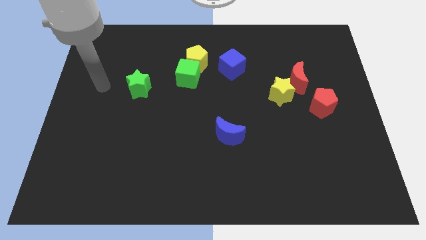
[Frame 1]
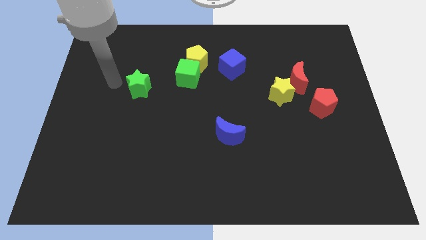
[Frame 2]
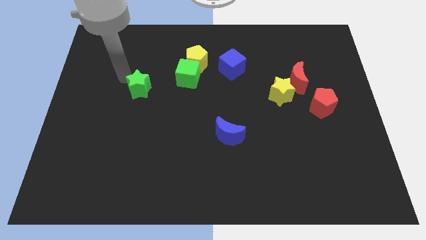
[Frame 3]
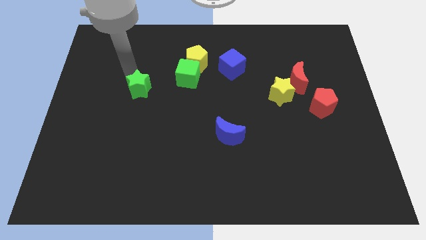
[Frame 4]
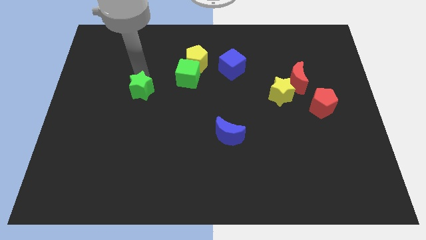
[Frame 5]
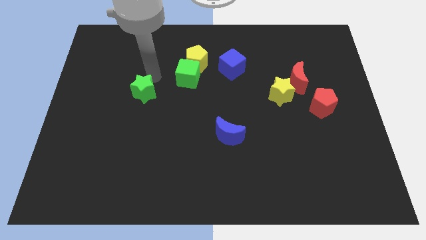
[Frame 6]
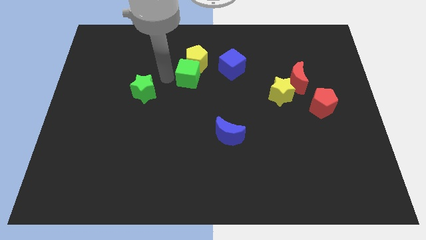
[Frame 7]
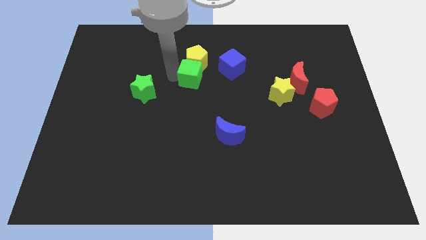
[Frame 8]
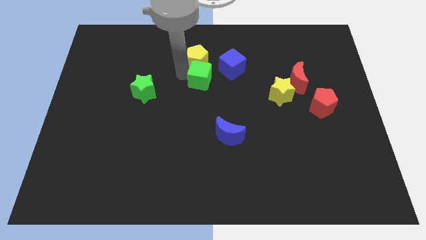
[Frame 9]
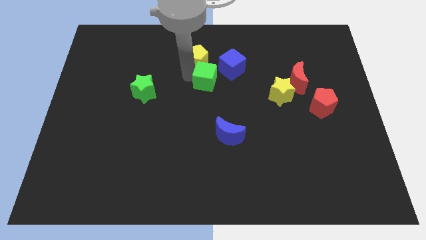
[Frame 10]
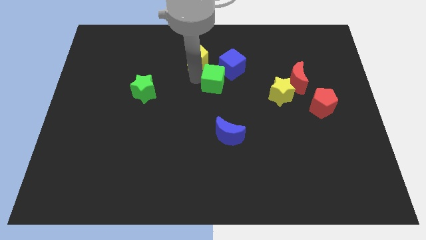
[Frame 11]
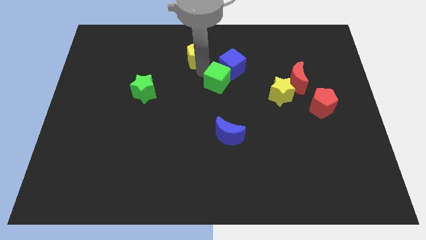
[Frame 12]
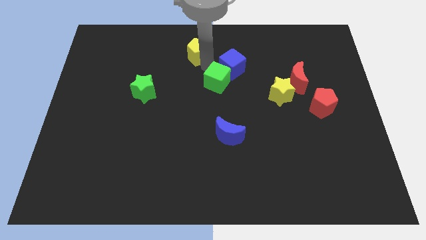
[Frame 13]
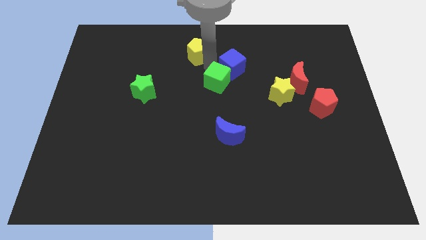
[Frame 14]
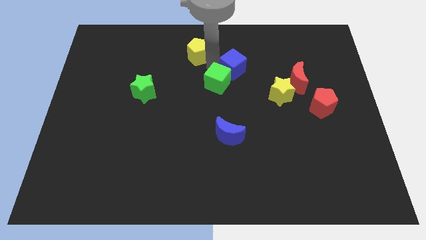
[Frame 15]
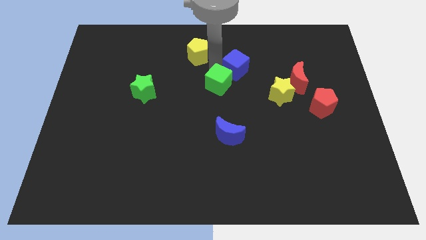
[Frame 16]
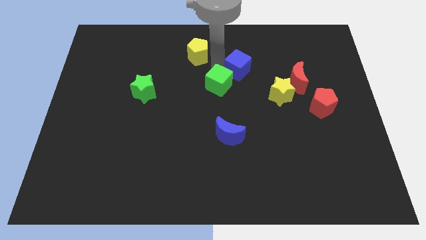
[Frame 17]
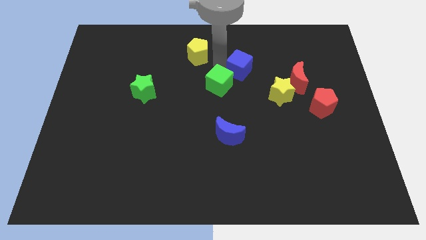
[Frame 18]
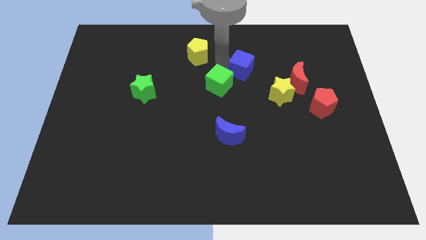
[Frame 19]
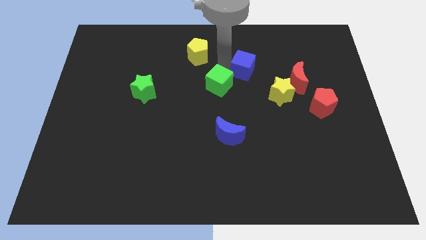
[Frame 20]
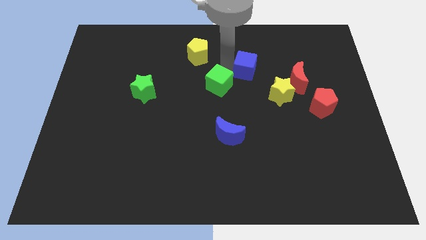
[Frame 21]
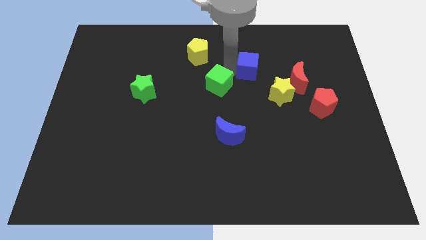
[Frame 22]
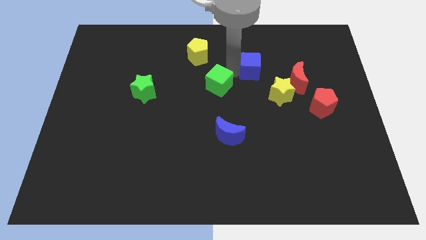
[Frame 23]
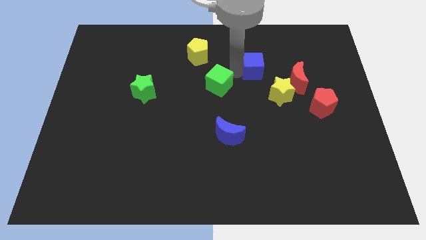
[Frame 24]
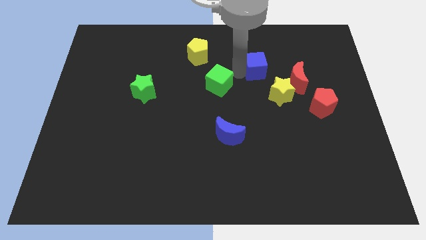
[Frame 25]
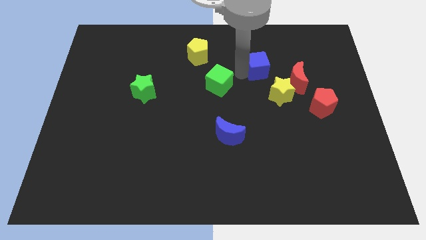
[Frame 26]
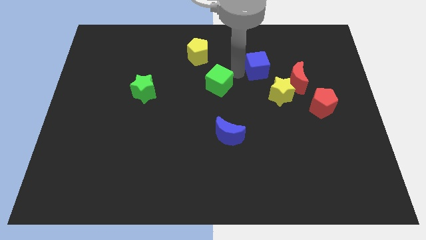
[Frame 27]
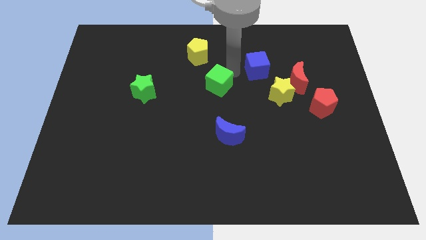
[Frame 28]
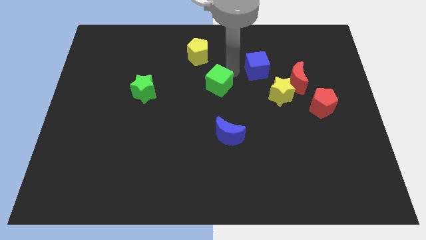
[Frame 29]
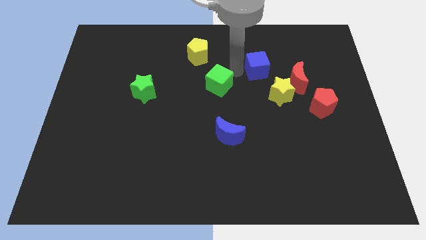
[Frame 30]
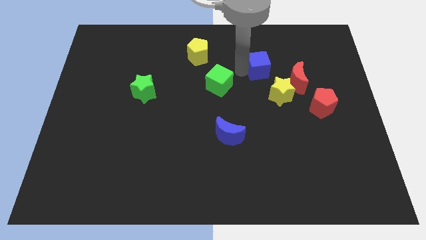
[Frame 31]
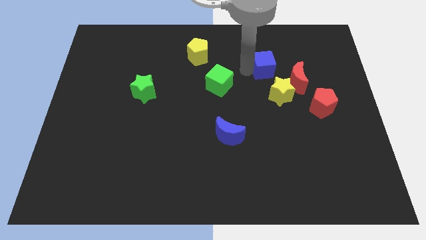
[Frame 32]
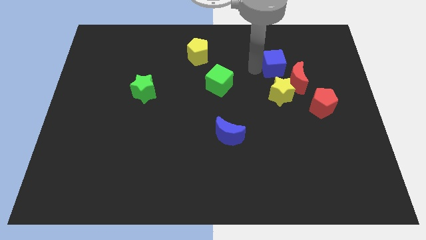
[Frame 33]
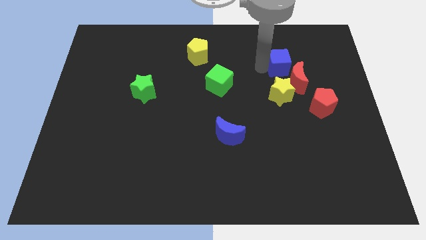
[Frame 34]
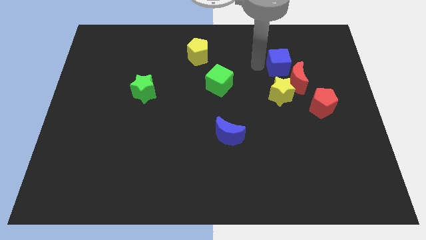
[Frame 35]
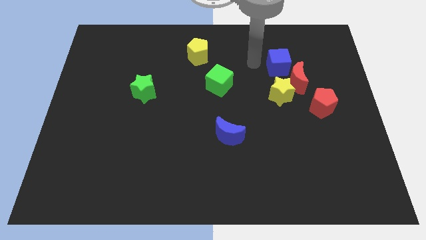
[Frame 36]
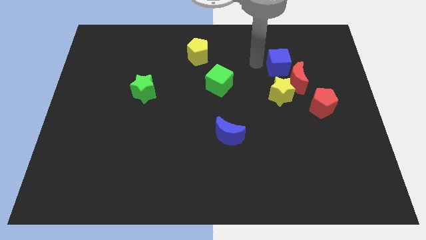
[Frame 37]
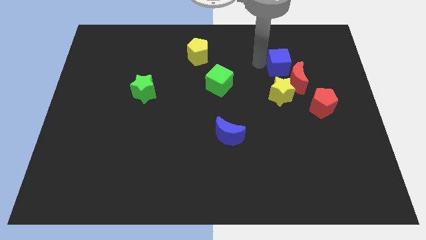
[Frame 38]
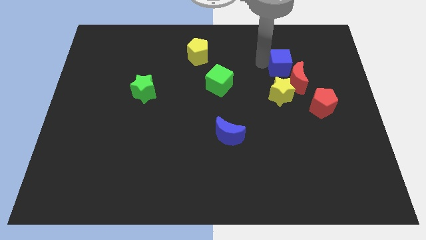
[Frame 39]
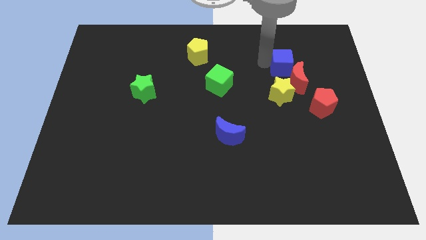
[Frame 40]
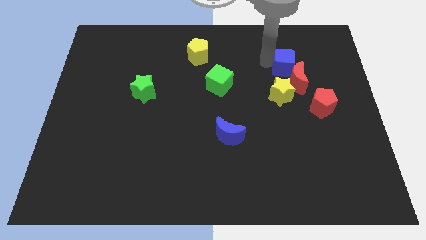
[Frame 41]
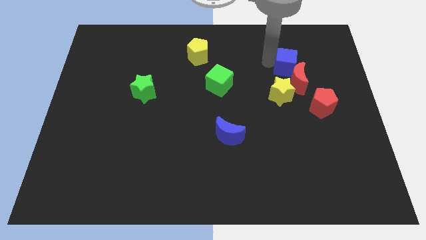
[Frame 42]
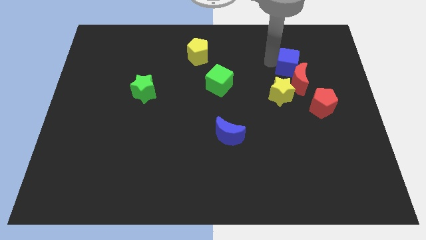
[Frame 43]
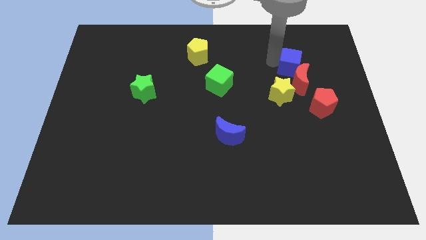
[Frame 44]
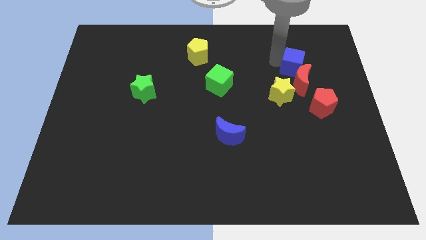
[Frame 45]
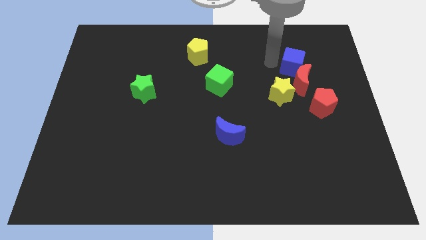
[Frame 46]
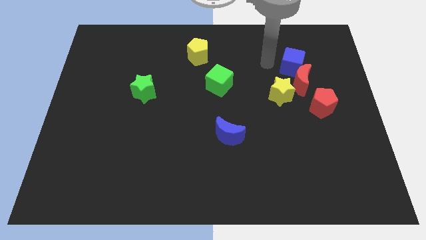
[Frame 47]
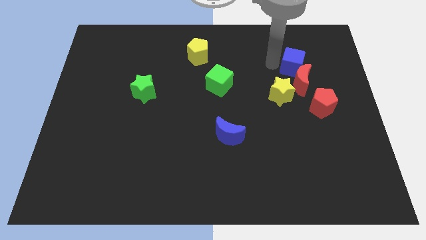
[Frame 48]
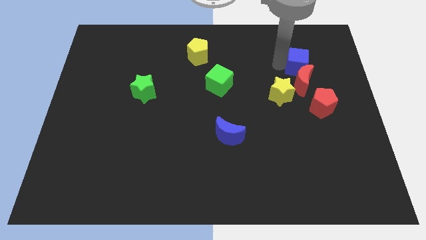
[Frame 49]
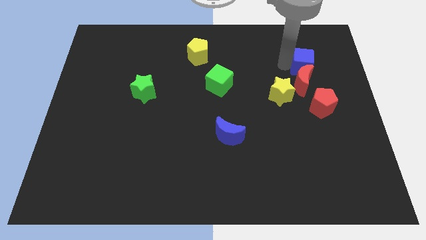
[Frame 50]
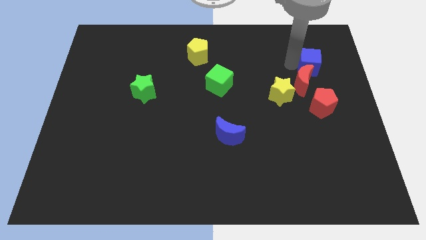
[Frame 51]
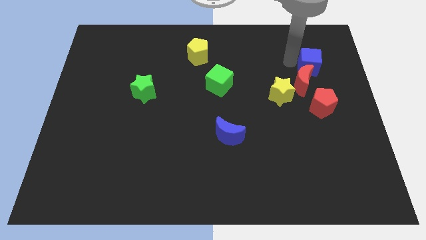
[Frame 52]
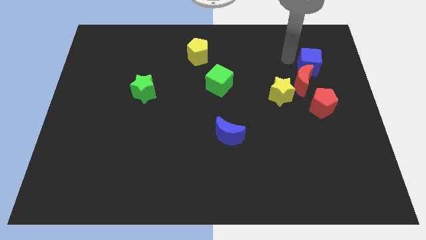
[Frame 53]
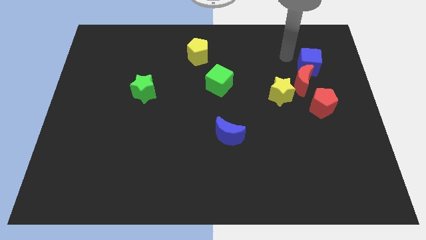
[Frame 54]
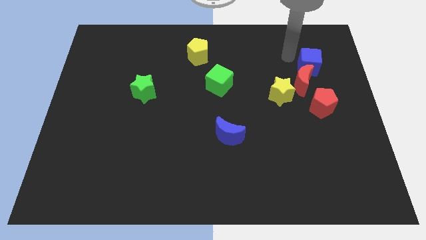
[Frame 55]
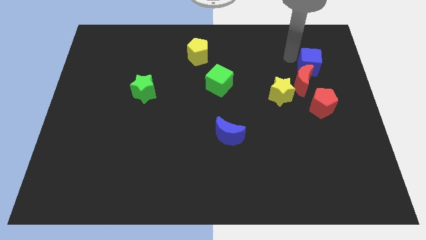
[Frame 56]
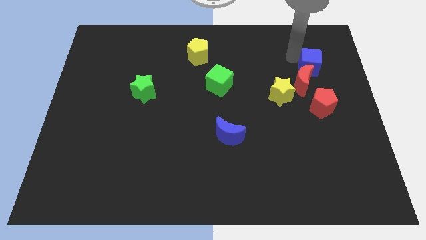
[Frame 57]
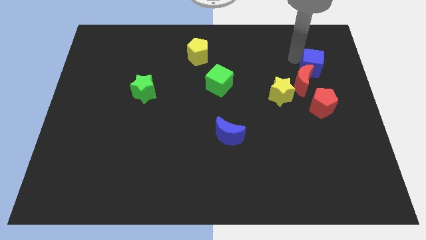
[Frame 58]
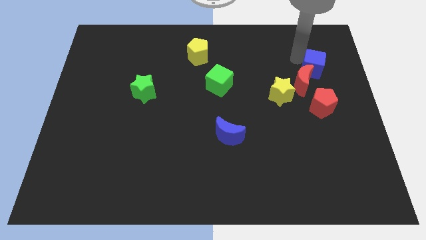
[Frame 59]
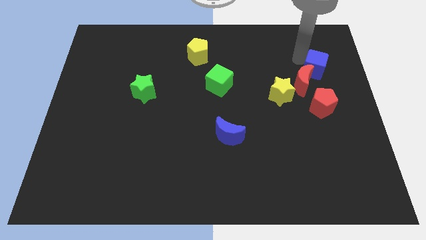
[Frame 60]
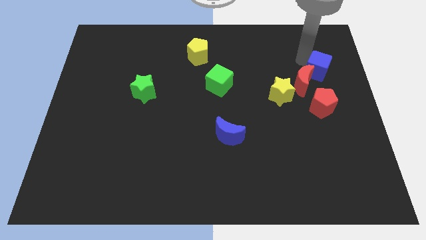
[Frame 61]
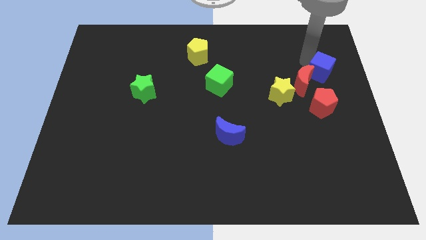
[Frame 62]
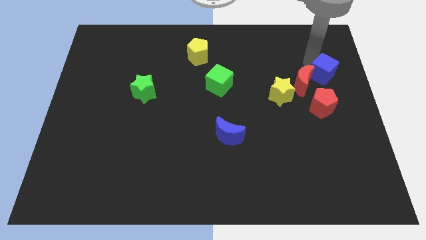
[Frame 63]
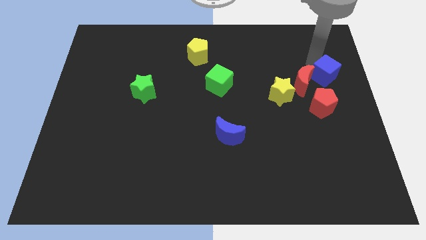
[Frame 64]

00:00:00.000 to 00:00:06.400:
put the blue cube to the right side
